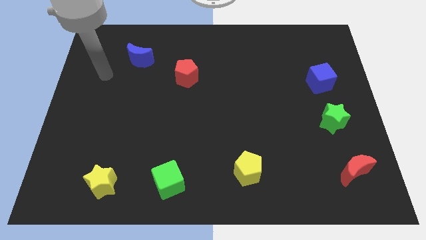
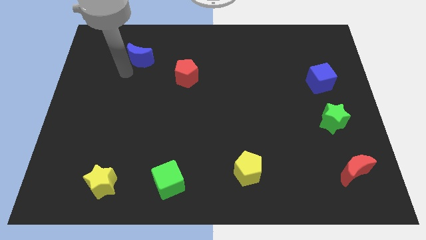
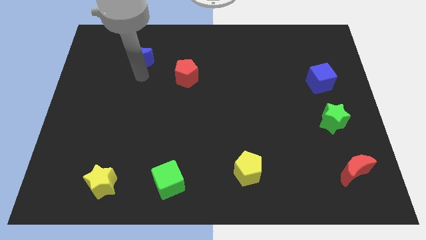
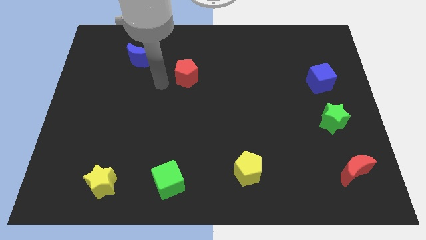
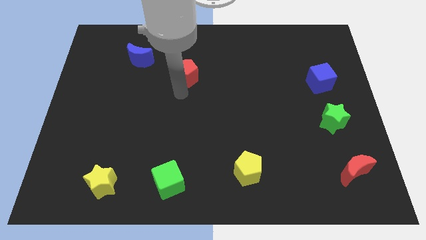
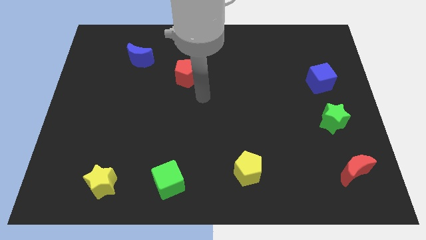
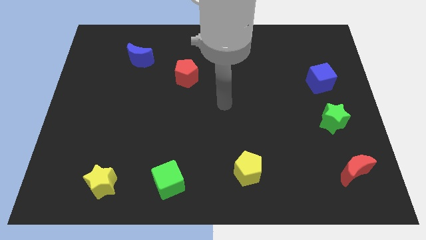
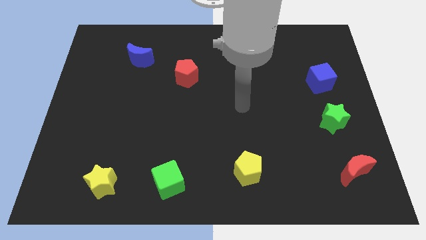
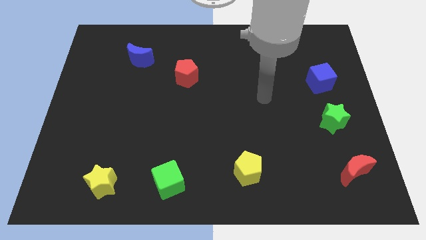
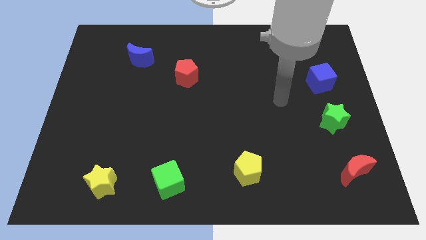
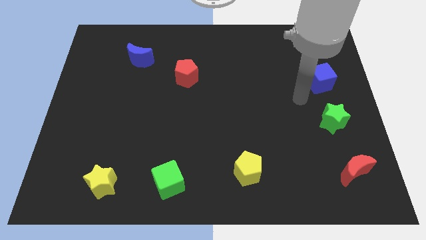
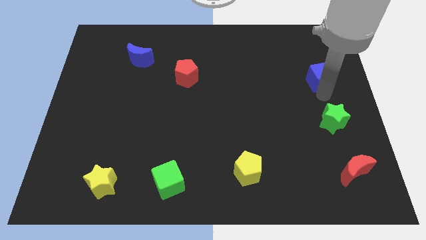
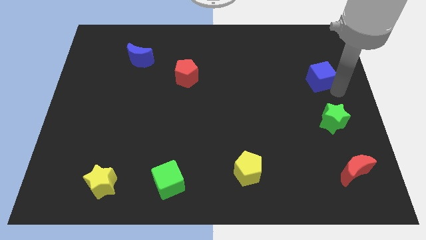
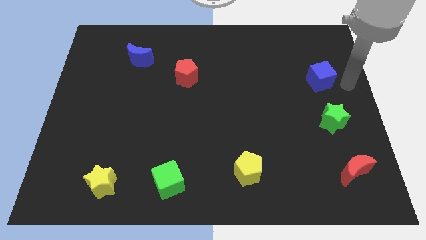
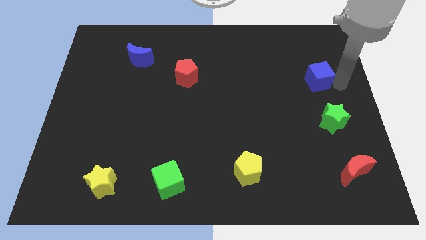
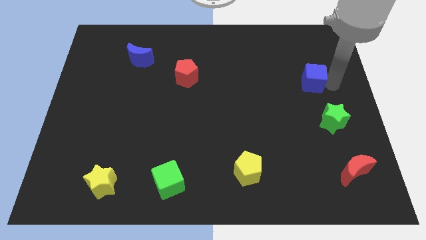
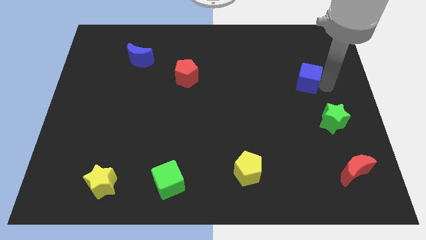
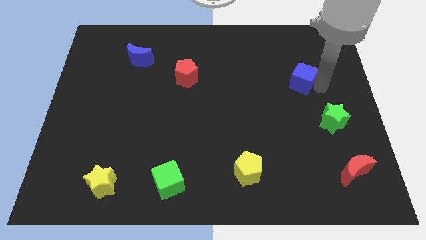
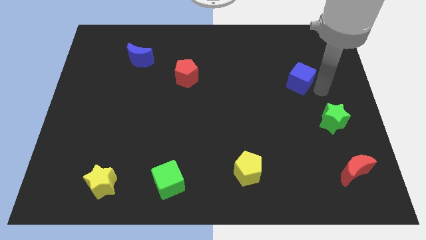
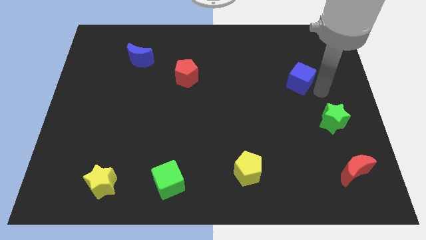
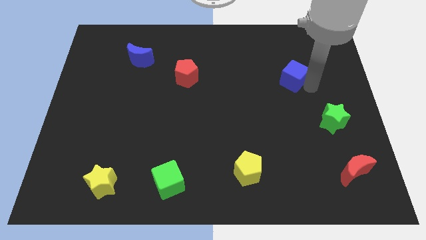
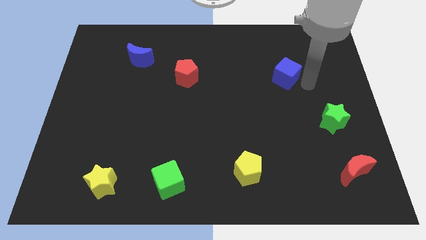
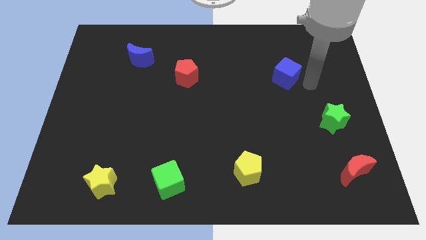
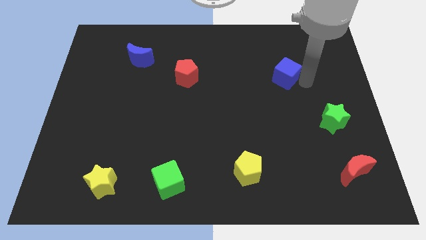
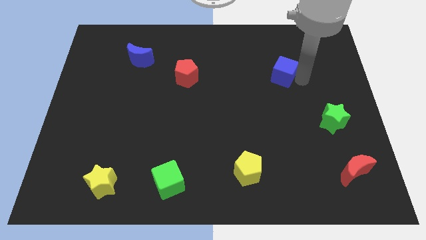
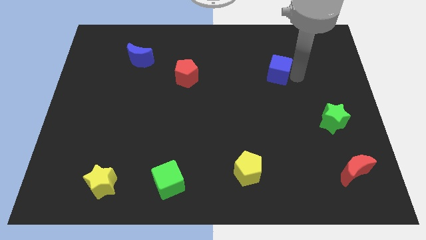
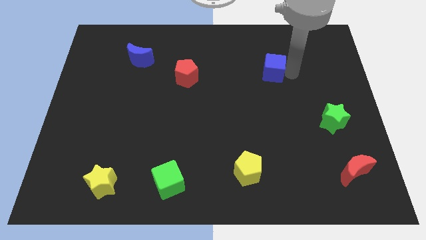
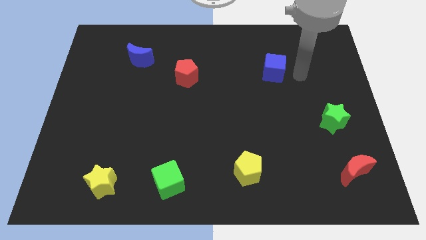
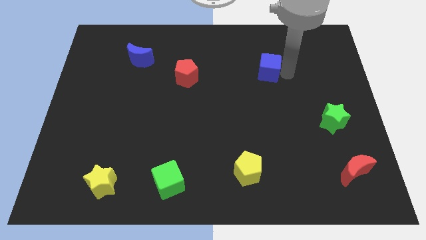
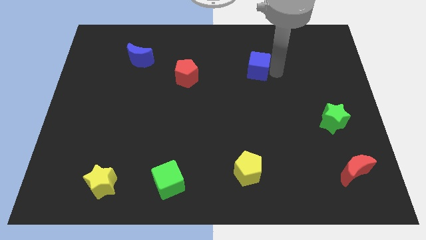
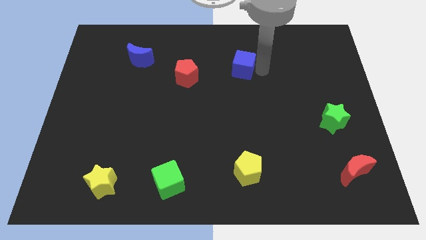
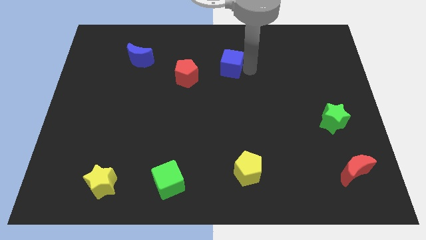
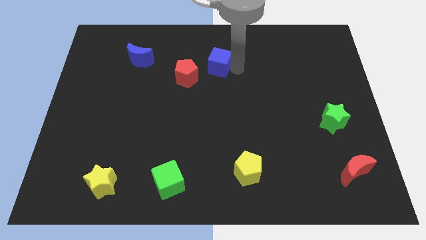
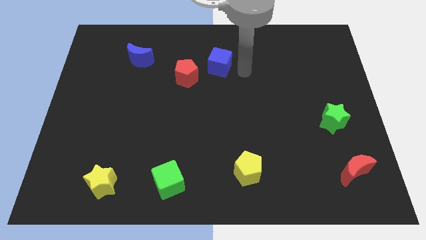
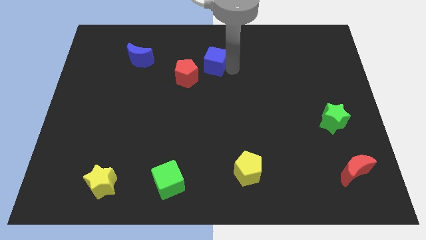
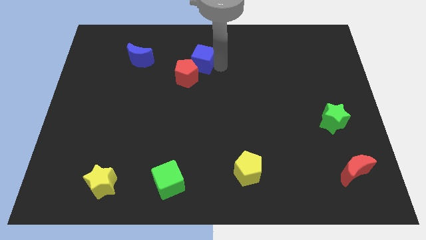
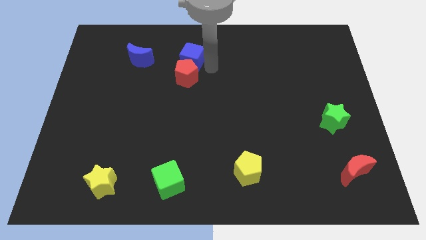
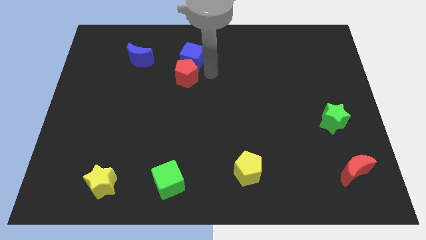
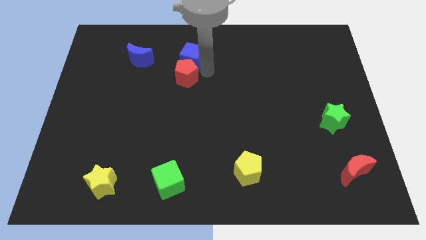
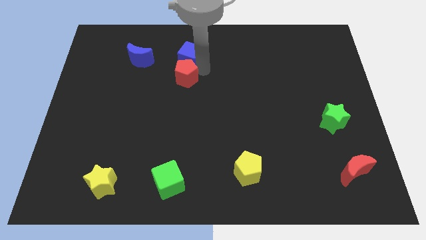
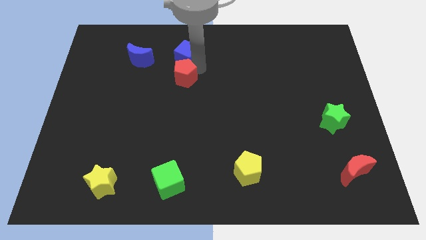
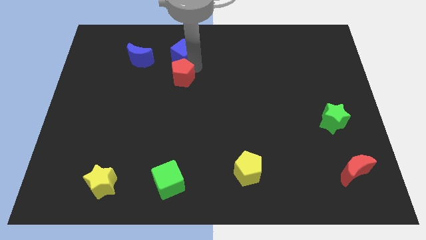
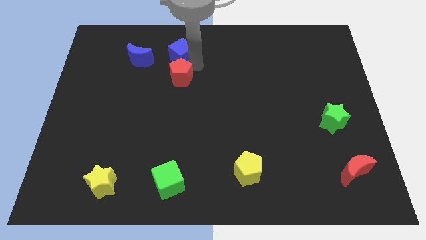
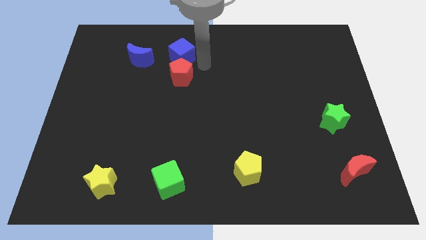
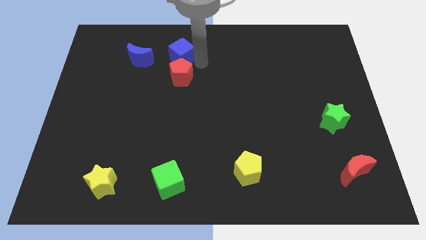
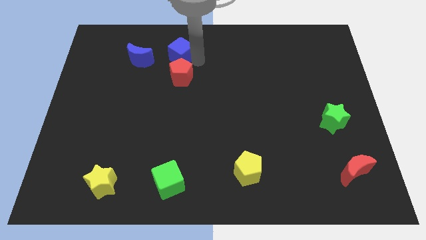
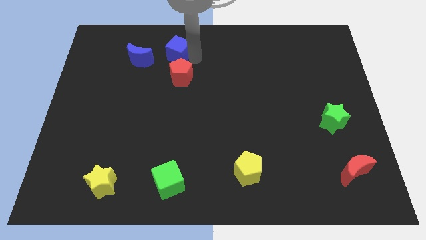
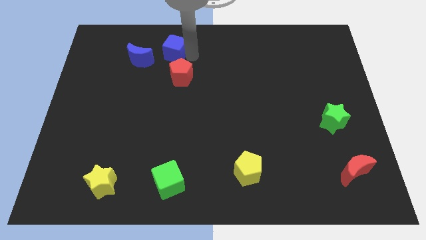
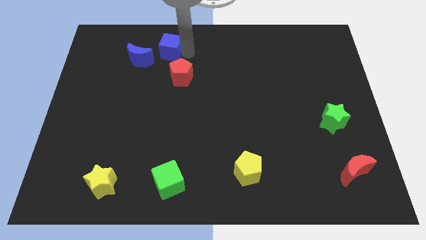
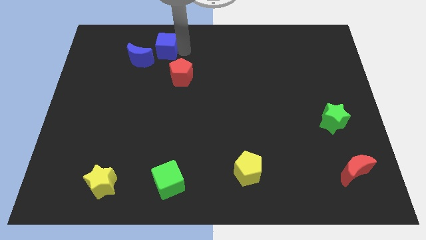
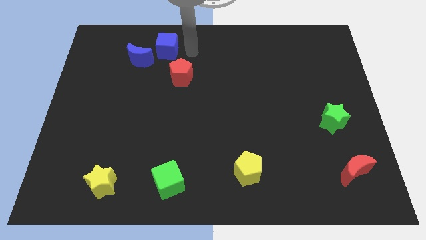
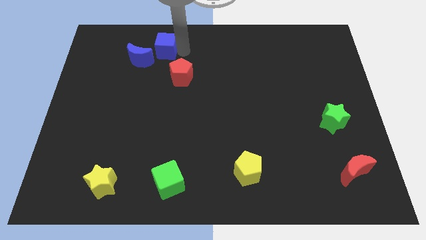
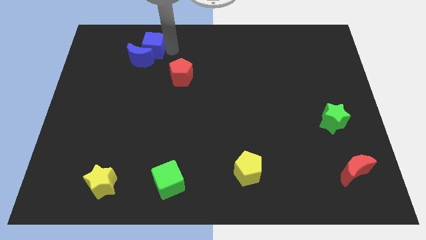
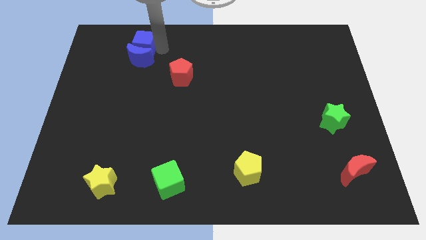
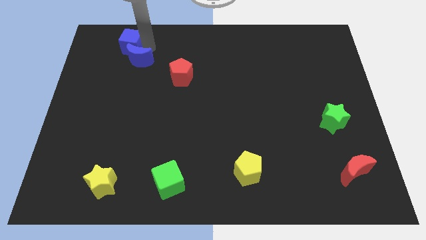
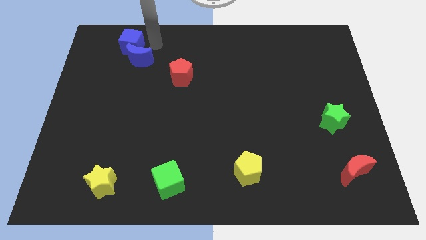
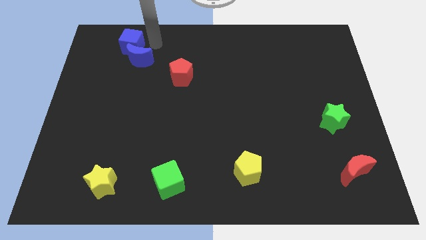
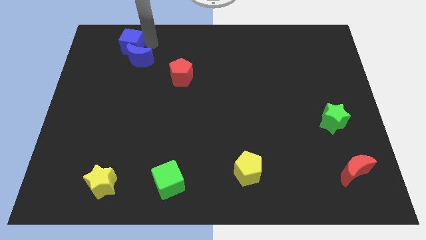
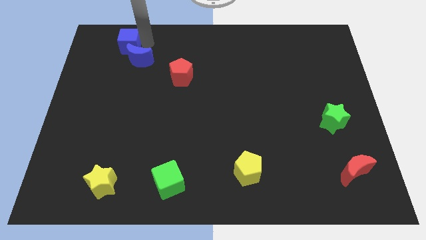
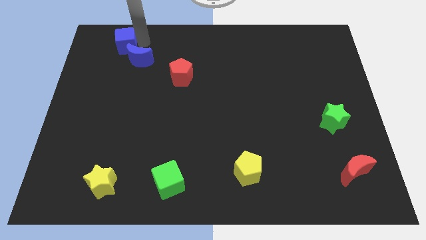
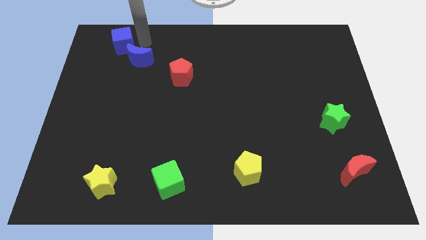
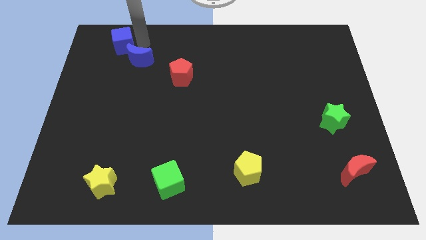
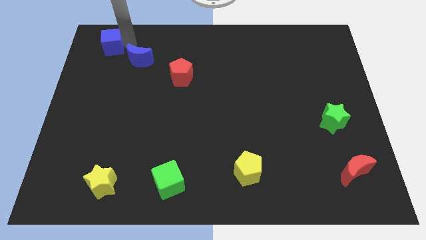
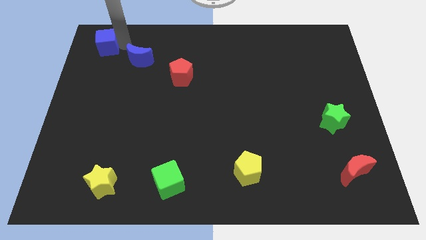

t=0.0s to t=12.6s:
put the blue cube to the top left corner
